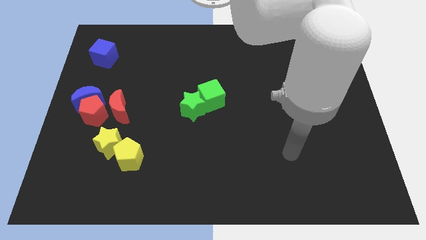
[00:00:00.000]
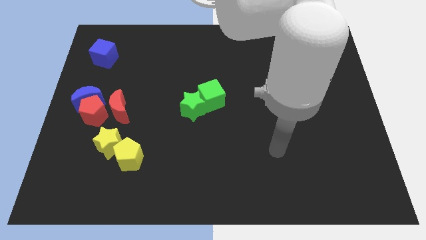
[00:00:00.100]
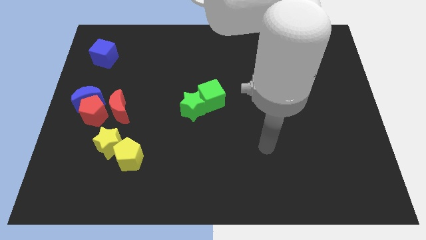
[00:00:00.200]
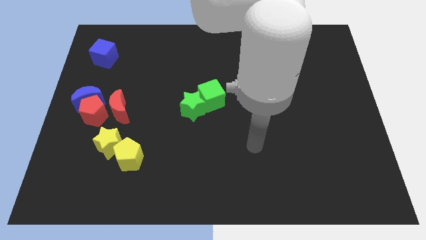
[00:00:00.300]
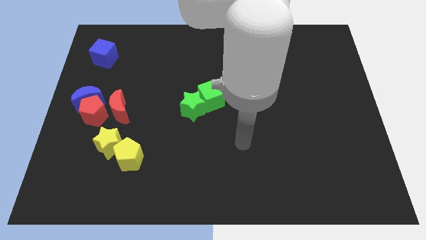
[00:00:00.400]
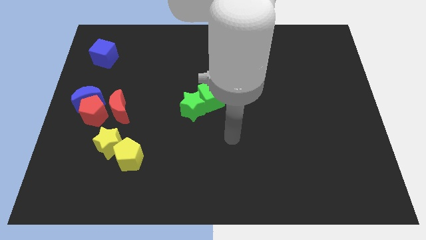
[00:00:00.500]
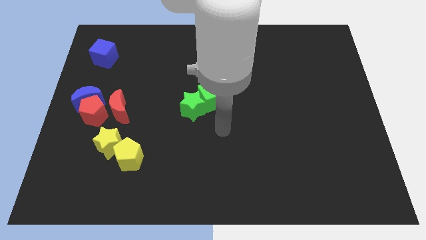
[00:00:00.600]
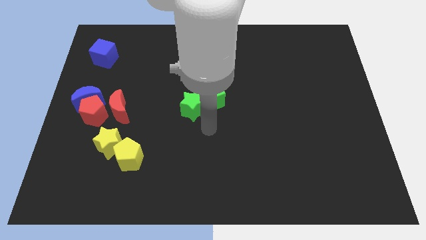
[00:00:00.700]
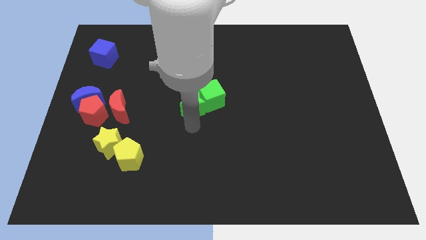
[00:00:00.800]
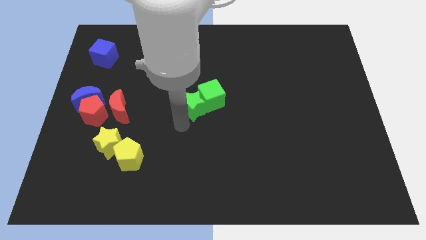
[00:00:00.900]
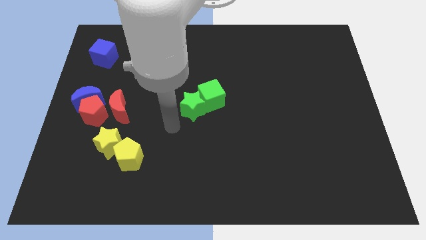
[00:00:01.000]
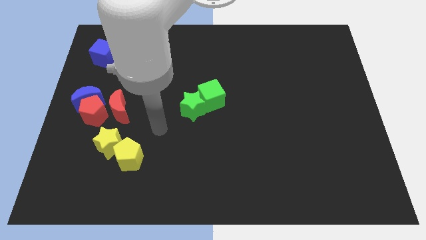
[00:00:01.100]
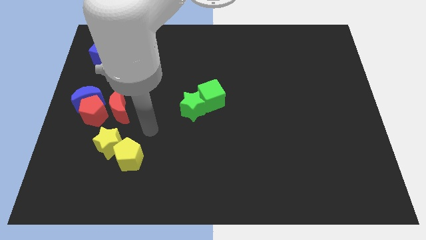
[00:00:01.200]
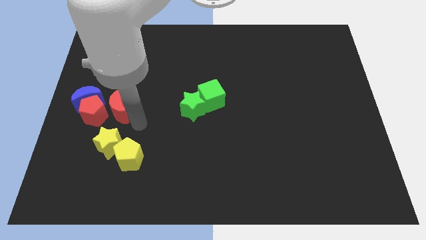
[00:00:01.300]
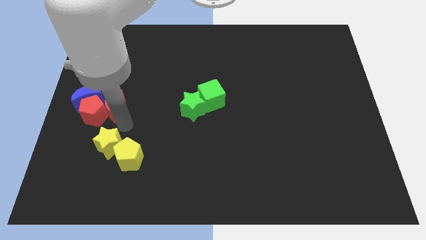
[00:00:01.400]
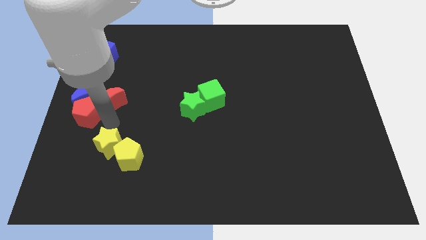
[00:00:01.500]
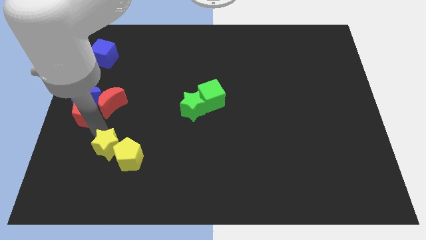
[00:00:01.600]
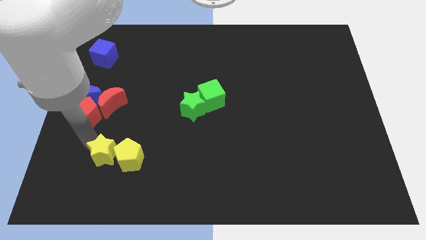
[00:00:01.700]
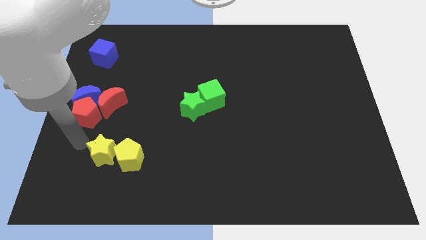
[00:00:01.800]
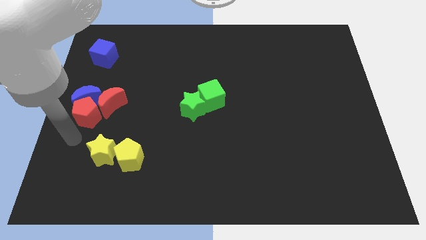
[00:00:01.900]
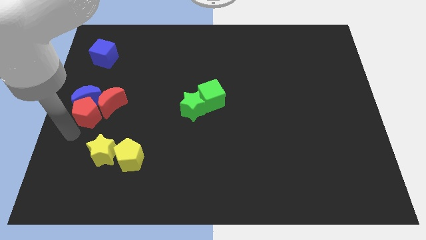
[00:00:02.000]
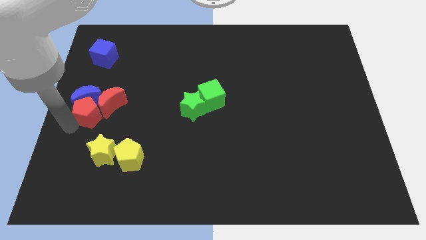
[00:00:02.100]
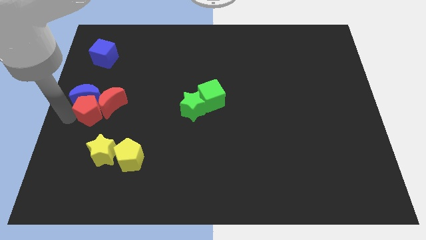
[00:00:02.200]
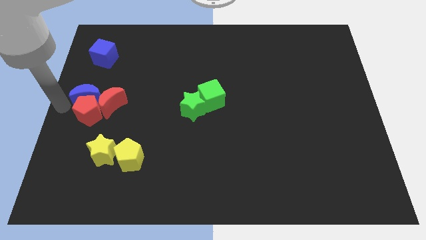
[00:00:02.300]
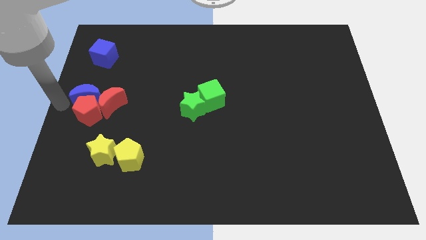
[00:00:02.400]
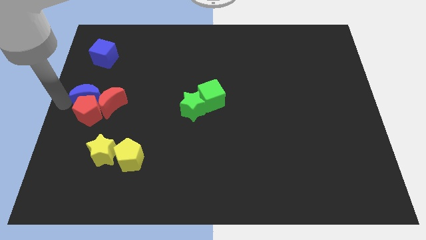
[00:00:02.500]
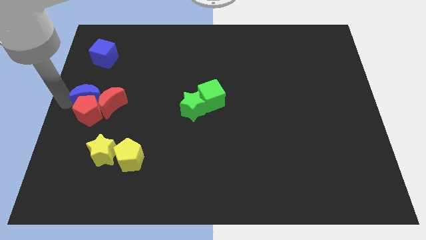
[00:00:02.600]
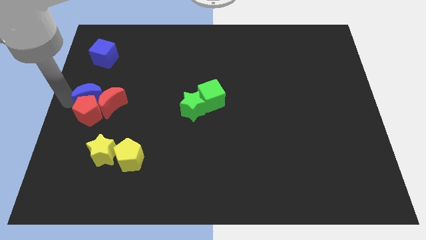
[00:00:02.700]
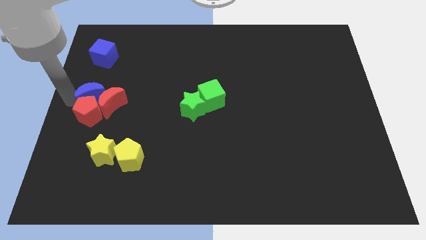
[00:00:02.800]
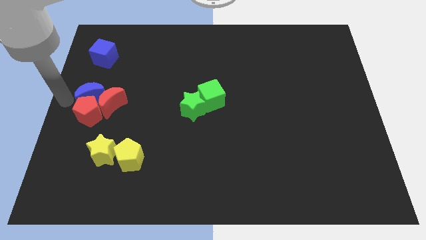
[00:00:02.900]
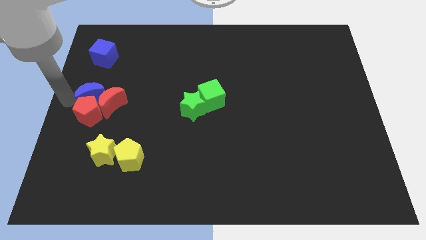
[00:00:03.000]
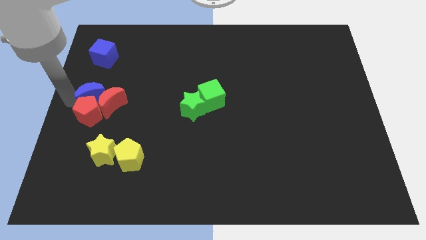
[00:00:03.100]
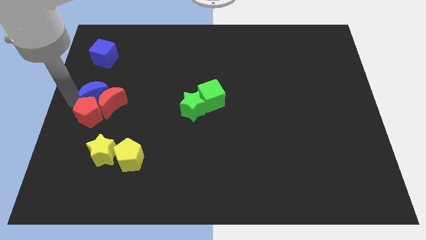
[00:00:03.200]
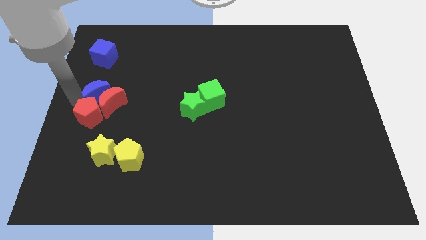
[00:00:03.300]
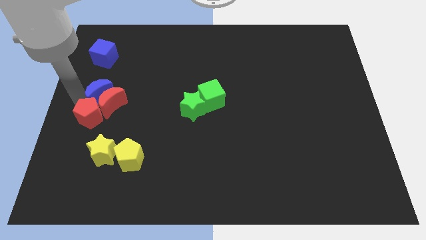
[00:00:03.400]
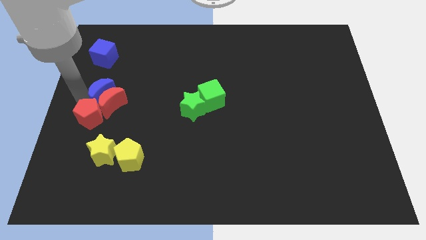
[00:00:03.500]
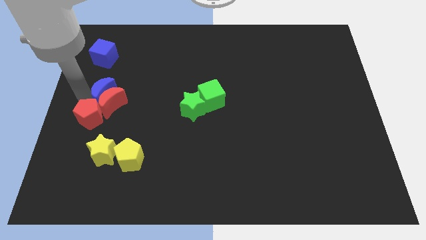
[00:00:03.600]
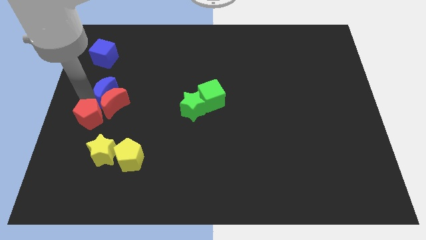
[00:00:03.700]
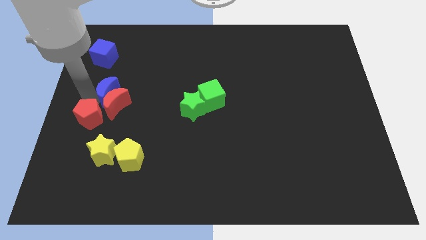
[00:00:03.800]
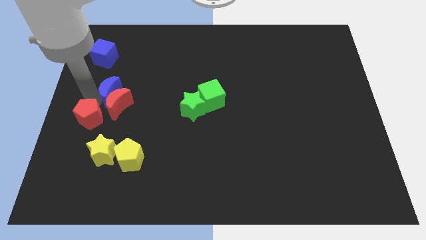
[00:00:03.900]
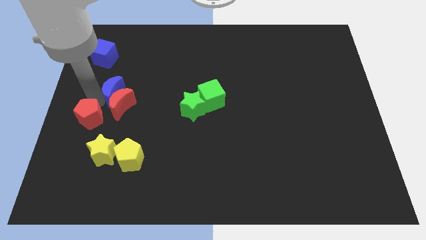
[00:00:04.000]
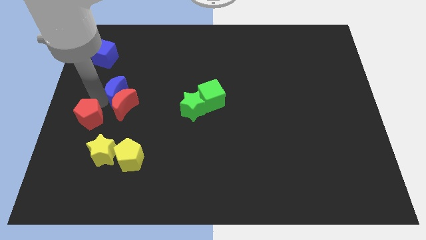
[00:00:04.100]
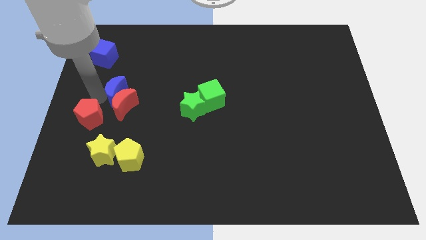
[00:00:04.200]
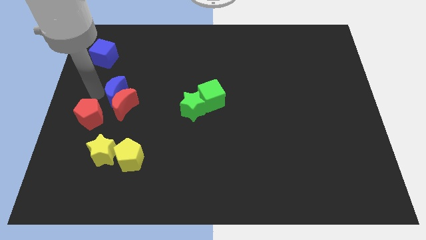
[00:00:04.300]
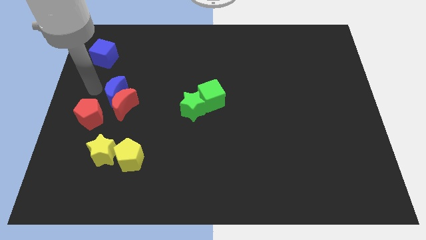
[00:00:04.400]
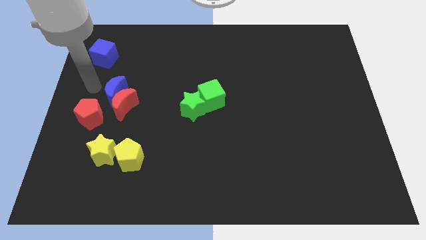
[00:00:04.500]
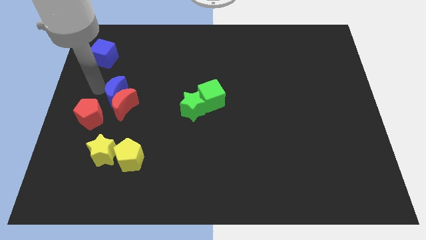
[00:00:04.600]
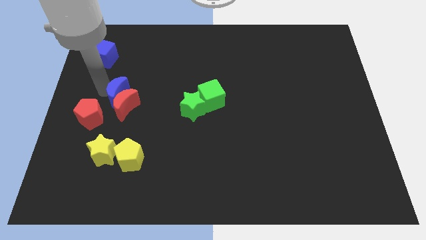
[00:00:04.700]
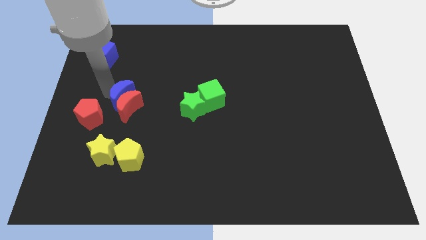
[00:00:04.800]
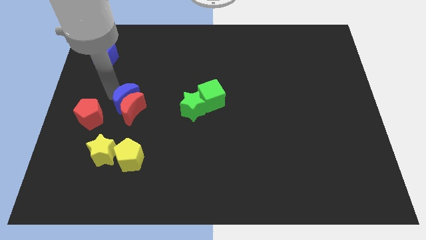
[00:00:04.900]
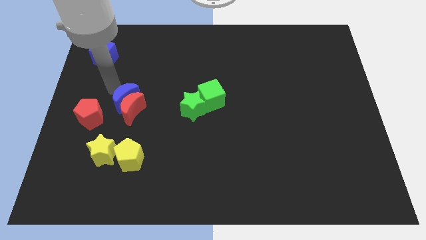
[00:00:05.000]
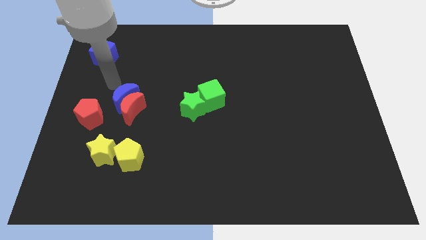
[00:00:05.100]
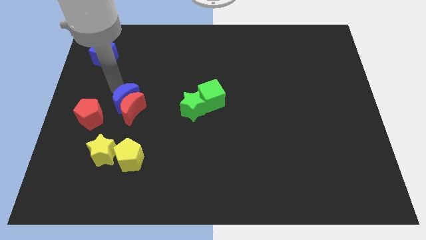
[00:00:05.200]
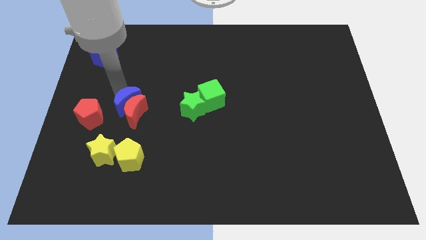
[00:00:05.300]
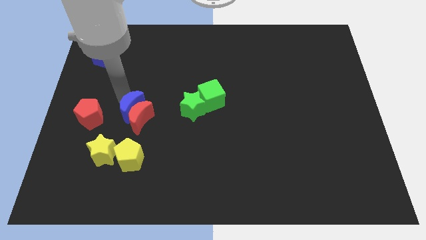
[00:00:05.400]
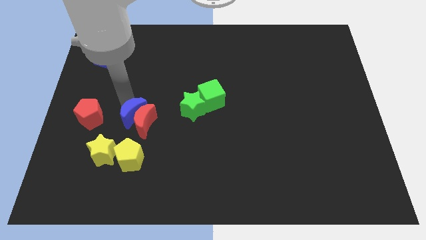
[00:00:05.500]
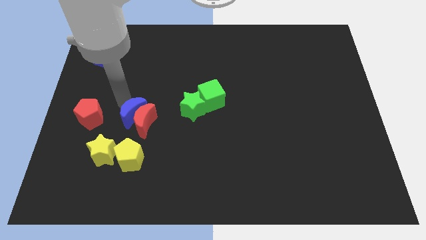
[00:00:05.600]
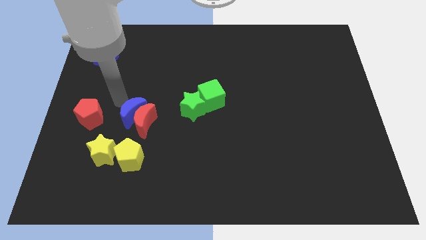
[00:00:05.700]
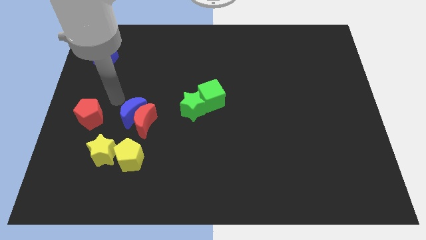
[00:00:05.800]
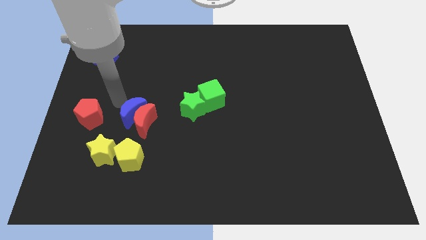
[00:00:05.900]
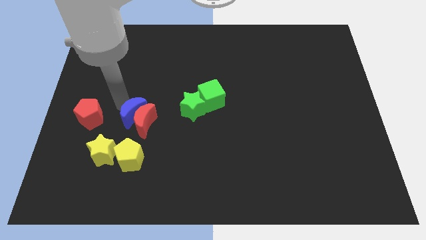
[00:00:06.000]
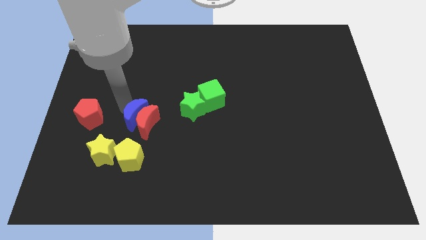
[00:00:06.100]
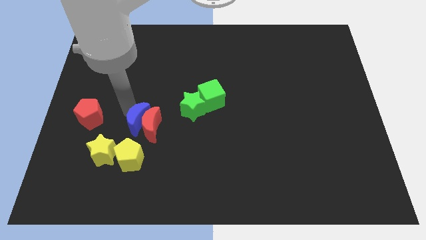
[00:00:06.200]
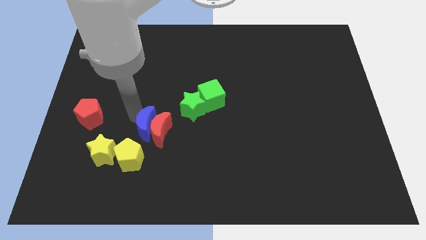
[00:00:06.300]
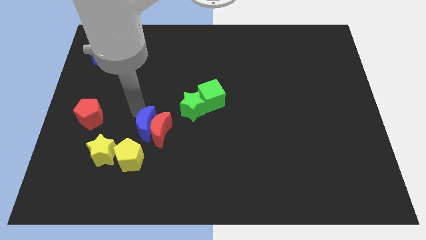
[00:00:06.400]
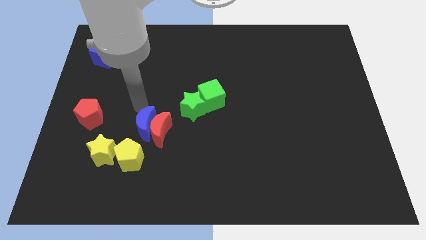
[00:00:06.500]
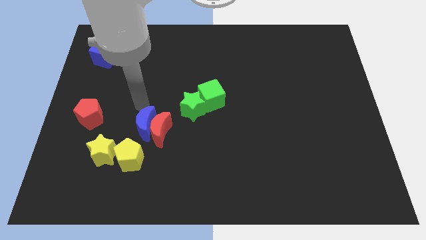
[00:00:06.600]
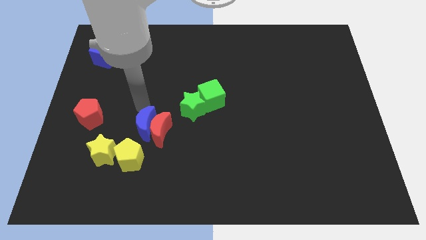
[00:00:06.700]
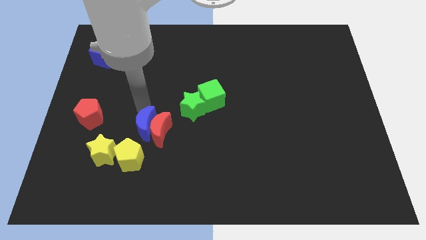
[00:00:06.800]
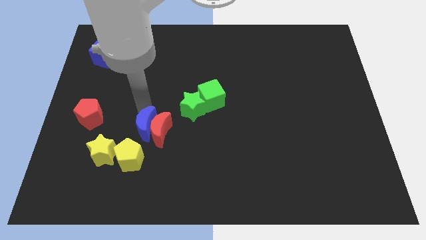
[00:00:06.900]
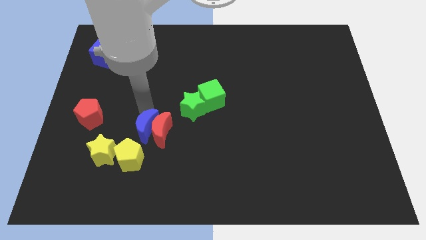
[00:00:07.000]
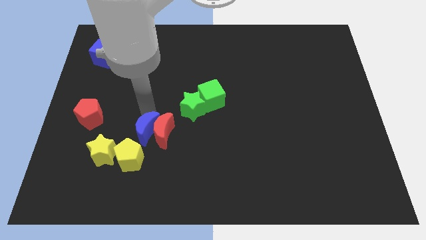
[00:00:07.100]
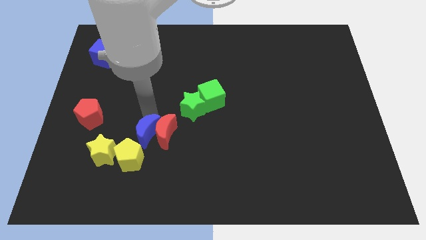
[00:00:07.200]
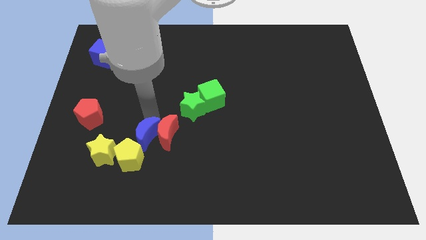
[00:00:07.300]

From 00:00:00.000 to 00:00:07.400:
push the blue moon to the right of the yellow star

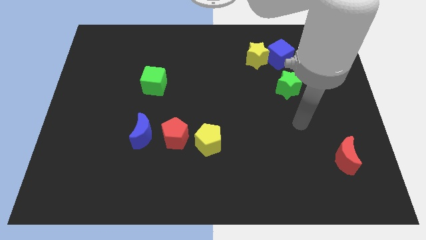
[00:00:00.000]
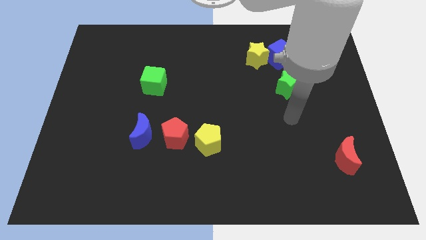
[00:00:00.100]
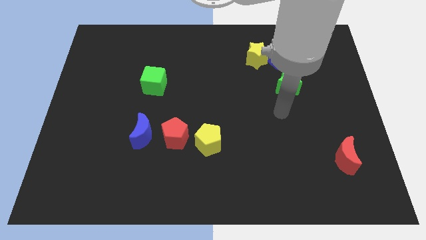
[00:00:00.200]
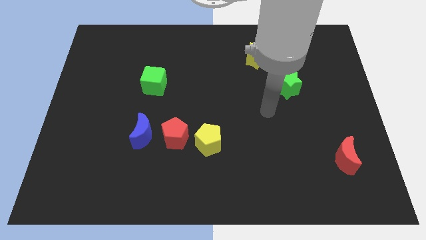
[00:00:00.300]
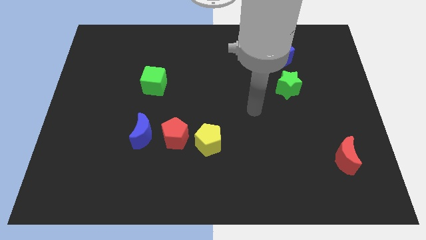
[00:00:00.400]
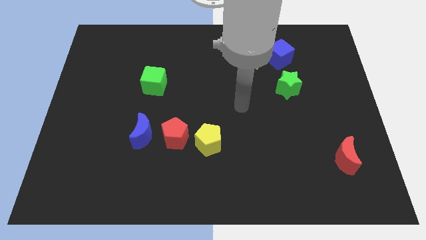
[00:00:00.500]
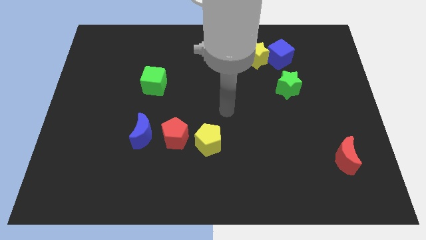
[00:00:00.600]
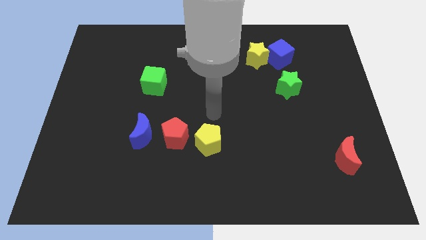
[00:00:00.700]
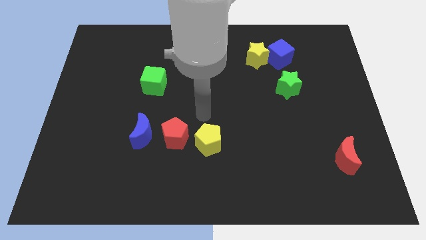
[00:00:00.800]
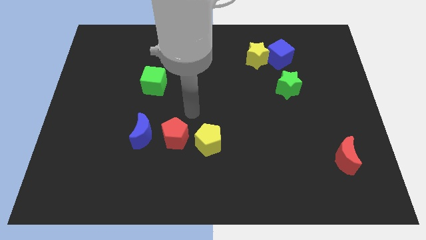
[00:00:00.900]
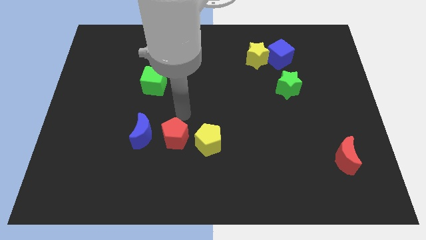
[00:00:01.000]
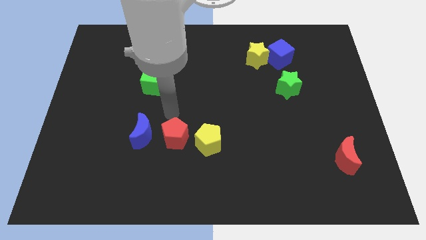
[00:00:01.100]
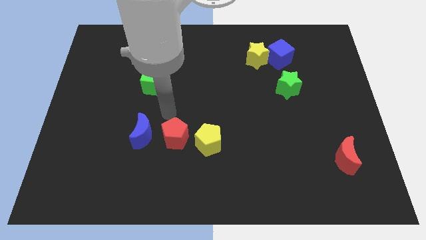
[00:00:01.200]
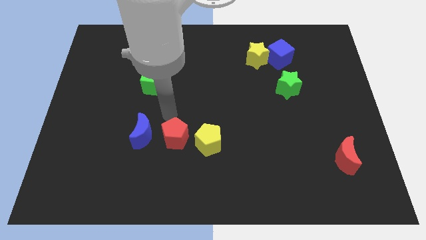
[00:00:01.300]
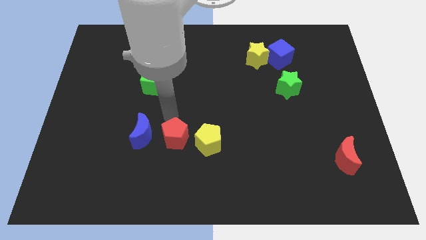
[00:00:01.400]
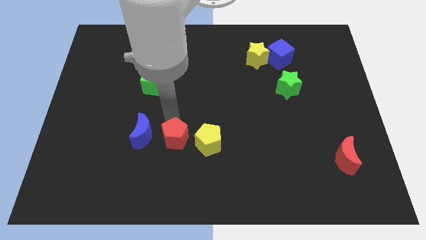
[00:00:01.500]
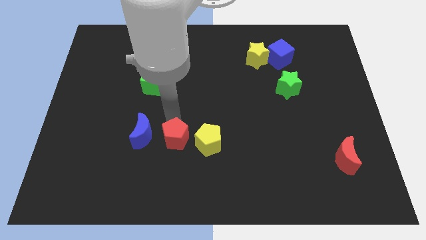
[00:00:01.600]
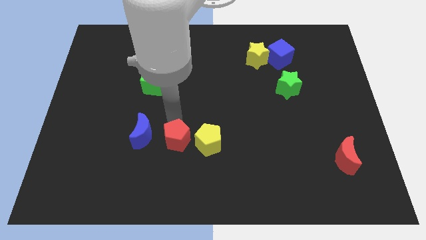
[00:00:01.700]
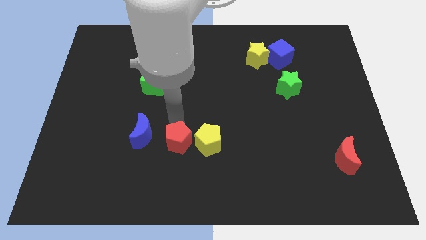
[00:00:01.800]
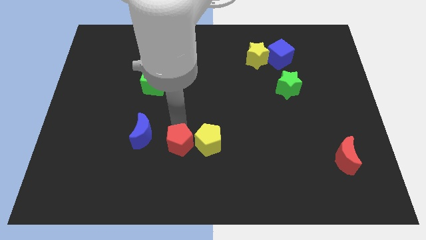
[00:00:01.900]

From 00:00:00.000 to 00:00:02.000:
put the red pentagon to the bottom left of the yellow pentagon
